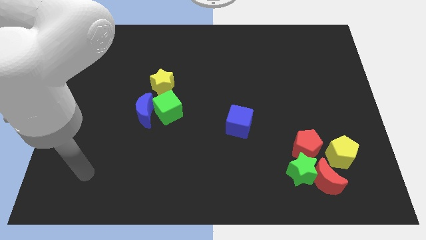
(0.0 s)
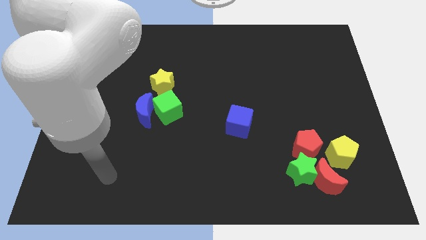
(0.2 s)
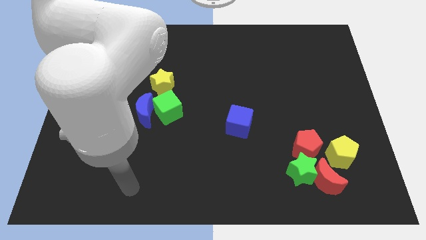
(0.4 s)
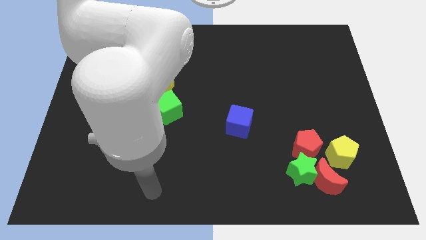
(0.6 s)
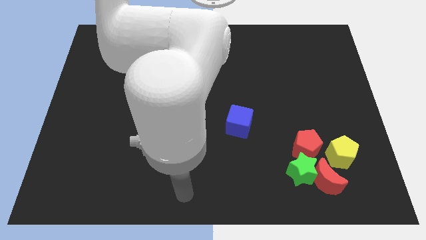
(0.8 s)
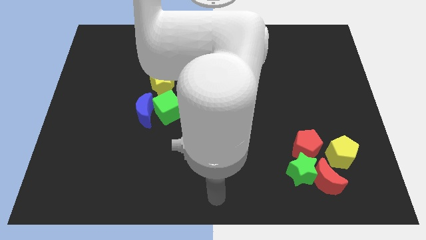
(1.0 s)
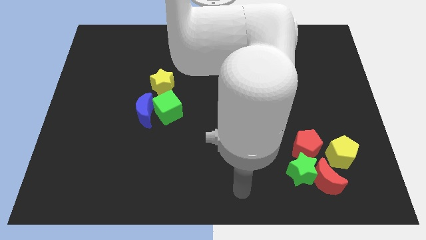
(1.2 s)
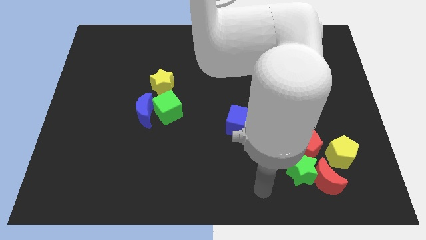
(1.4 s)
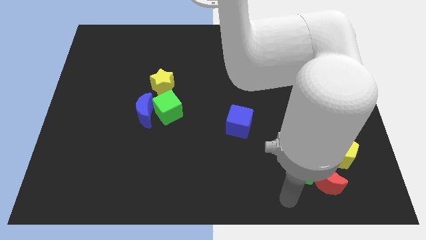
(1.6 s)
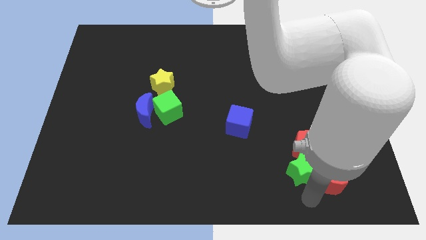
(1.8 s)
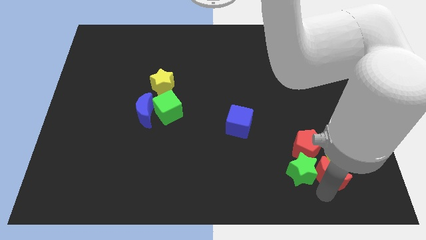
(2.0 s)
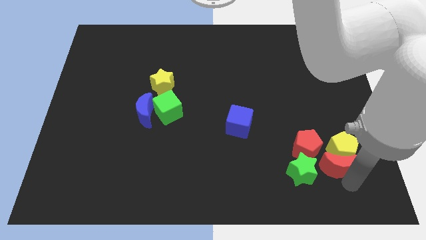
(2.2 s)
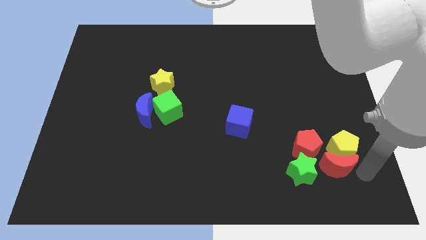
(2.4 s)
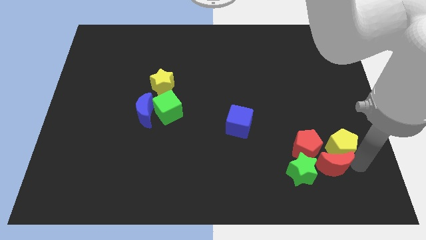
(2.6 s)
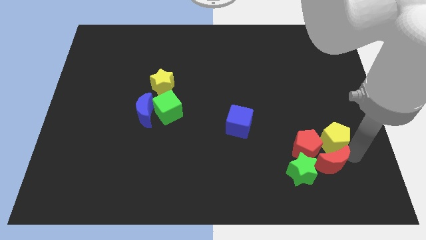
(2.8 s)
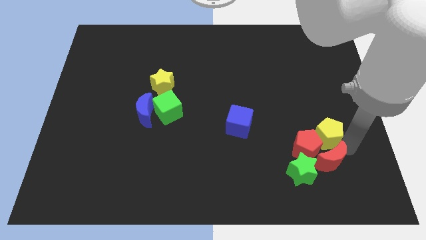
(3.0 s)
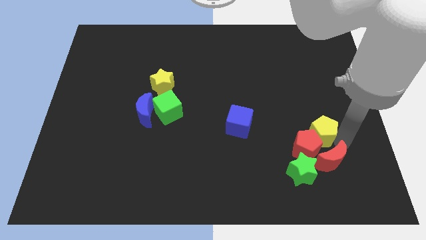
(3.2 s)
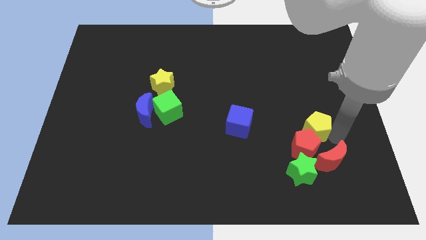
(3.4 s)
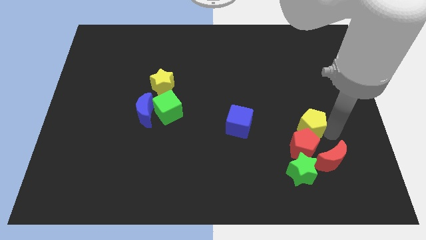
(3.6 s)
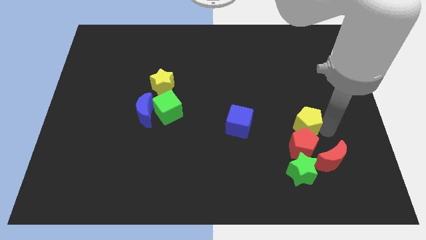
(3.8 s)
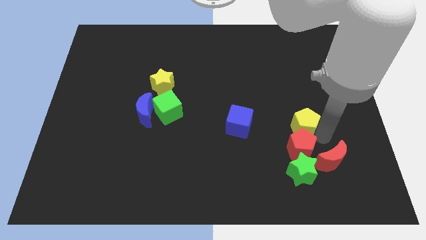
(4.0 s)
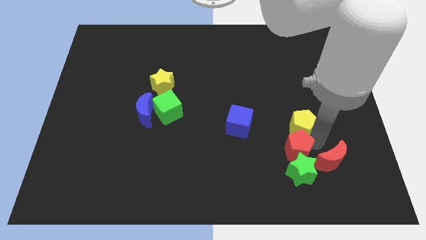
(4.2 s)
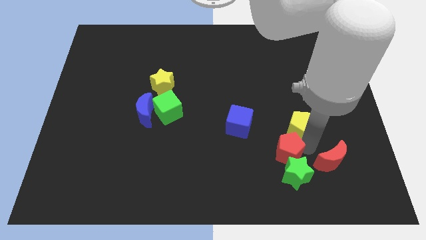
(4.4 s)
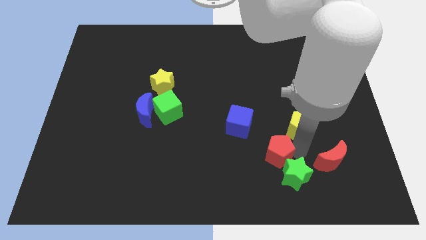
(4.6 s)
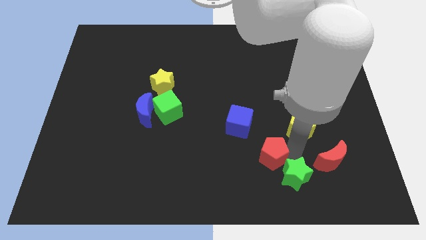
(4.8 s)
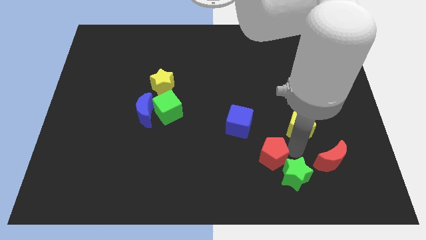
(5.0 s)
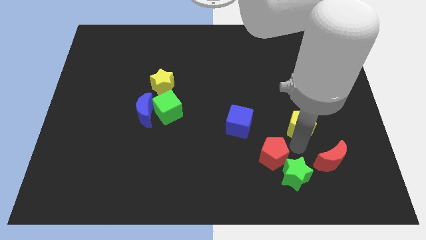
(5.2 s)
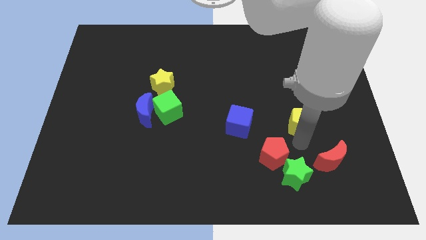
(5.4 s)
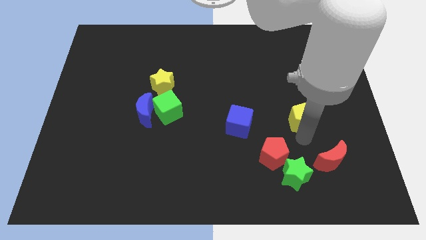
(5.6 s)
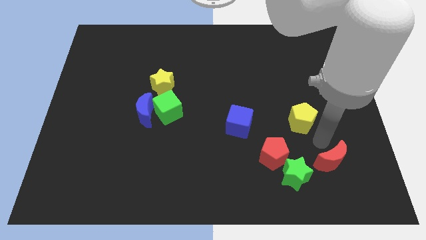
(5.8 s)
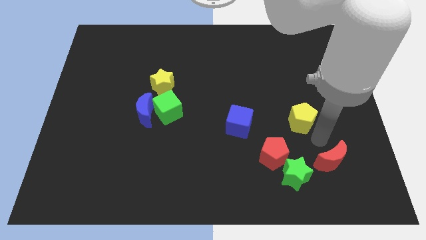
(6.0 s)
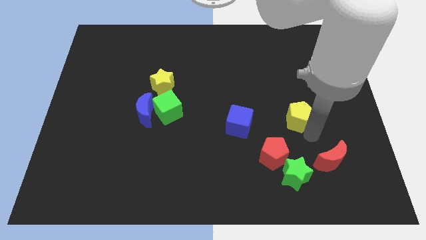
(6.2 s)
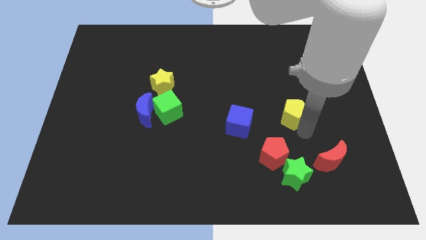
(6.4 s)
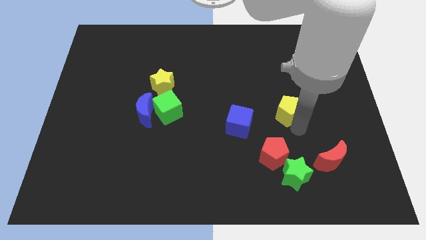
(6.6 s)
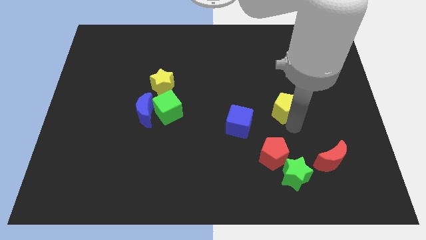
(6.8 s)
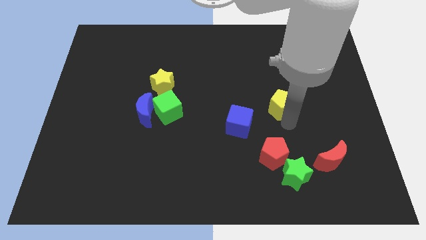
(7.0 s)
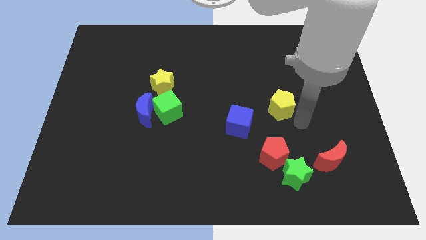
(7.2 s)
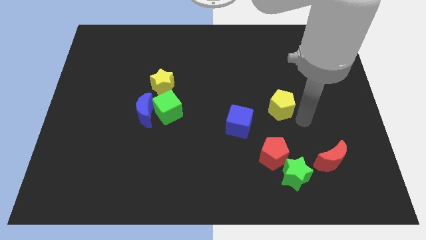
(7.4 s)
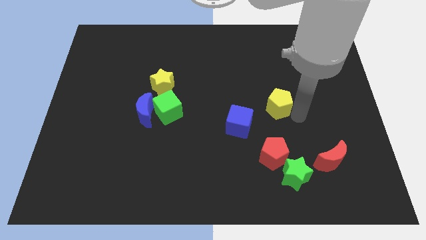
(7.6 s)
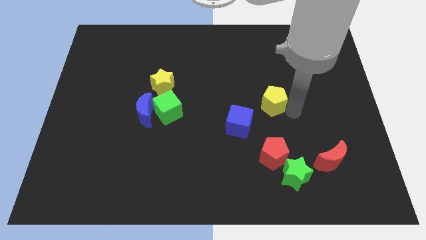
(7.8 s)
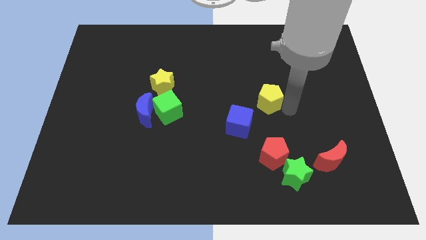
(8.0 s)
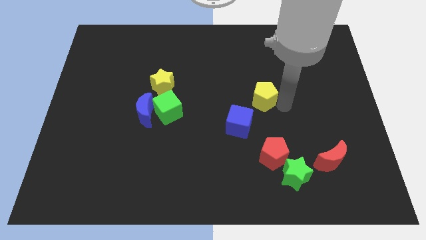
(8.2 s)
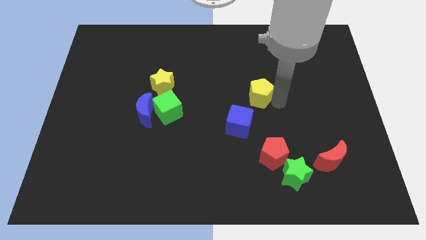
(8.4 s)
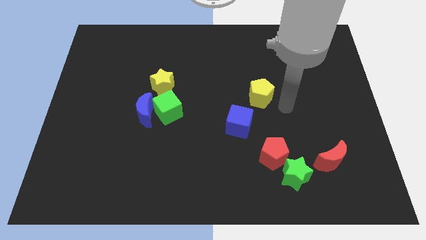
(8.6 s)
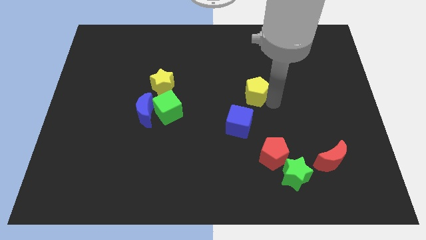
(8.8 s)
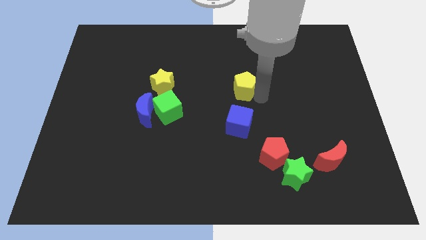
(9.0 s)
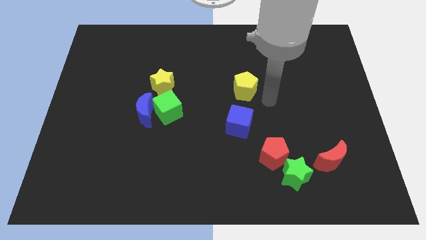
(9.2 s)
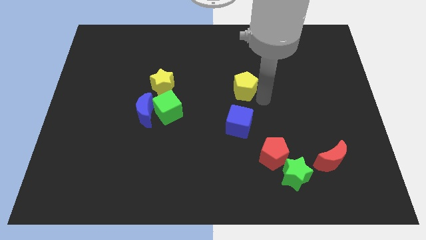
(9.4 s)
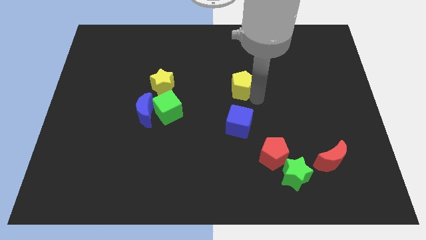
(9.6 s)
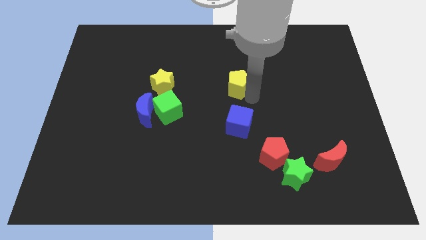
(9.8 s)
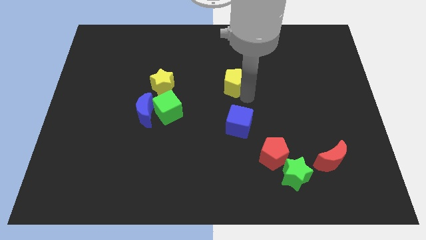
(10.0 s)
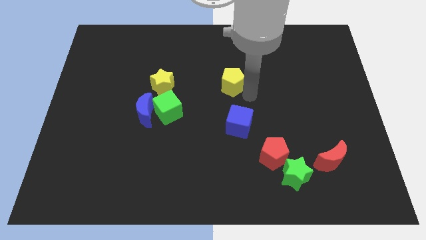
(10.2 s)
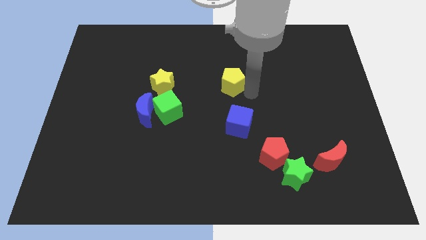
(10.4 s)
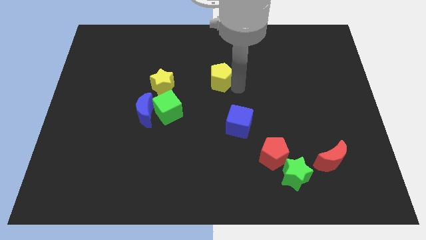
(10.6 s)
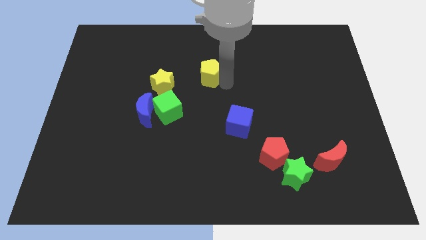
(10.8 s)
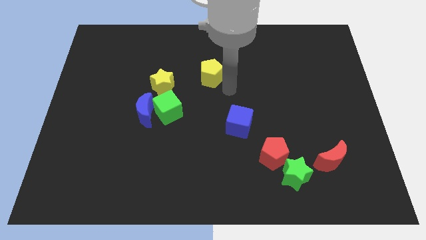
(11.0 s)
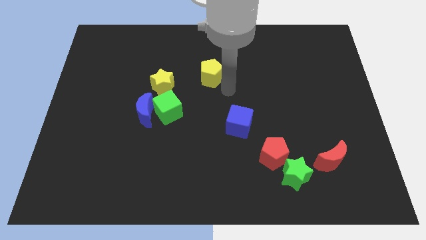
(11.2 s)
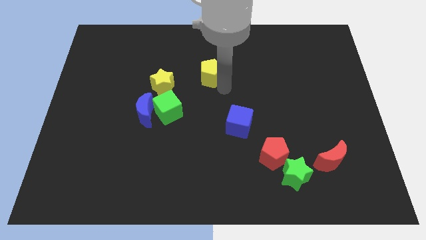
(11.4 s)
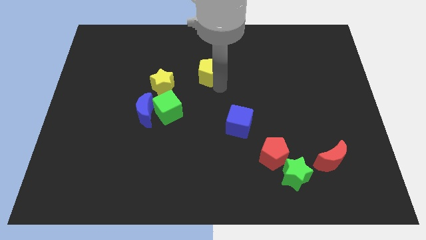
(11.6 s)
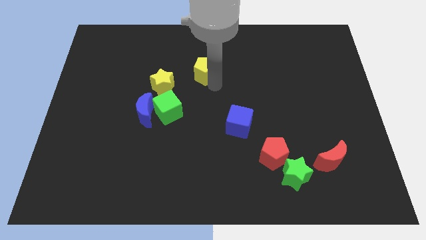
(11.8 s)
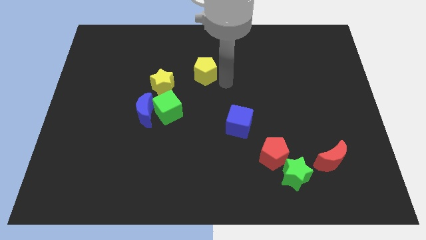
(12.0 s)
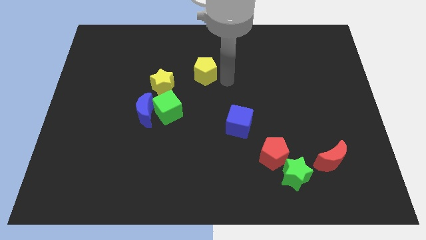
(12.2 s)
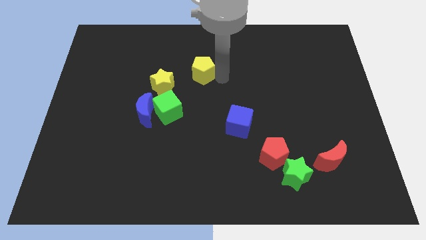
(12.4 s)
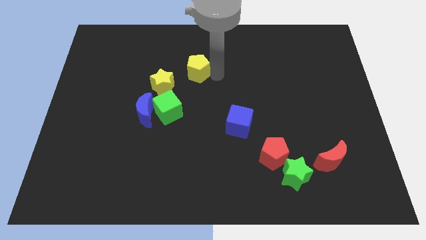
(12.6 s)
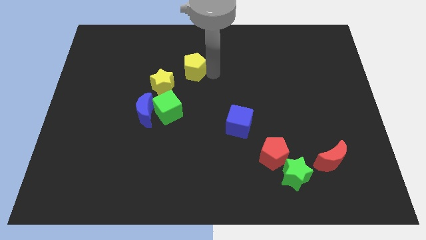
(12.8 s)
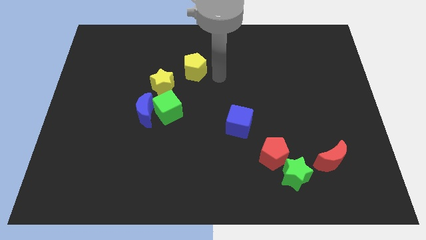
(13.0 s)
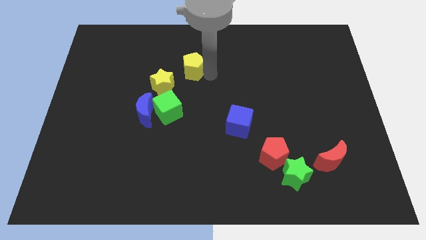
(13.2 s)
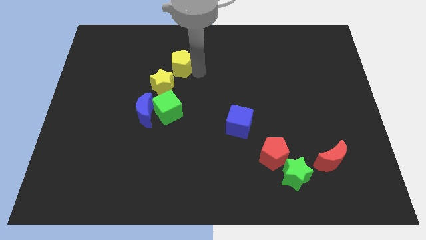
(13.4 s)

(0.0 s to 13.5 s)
slide the yellow pentagon to the top of the yellow star

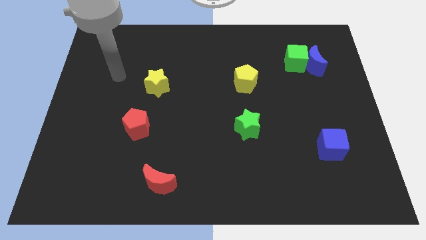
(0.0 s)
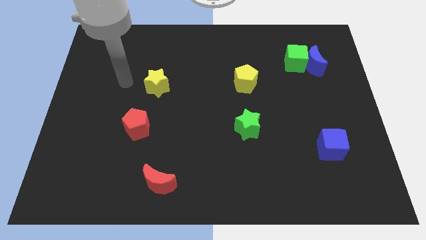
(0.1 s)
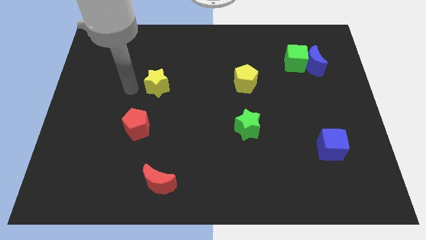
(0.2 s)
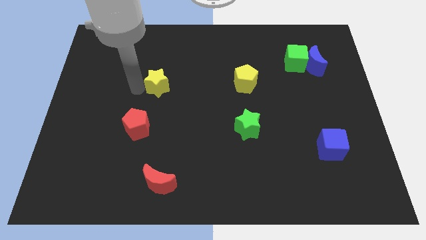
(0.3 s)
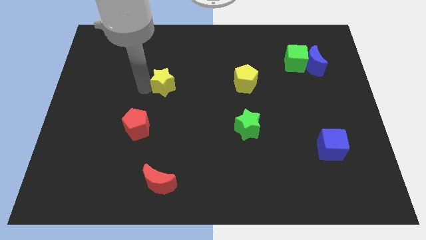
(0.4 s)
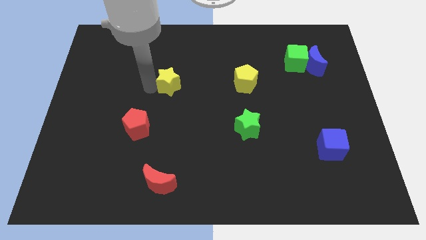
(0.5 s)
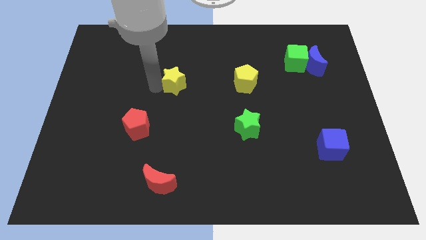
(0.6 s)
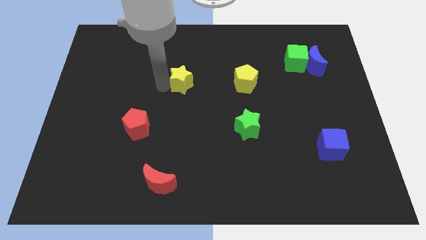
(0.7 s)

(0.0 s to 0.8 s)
put the yellow star to the left of the yellow pentagon
